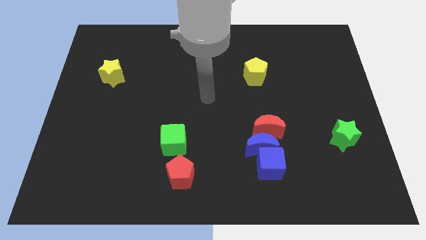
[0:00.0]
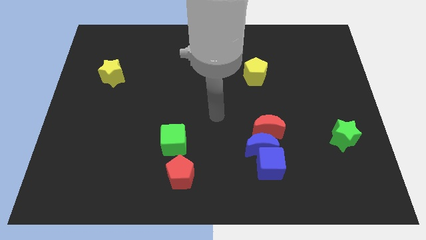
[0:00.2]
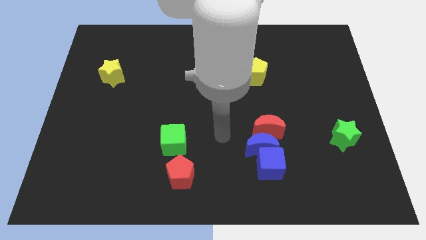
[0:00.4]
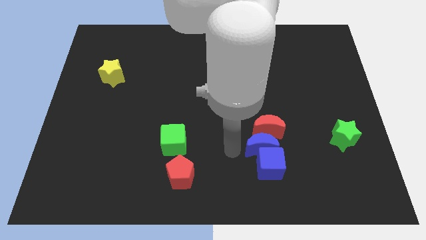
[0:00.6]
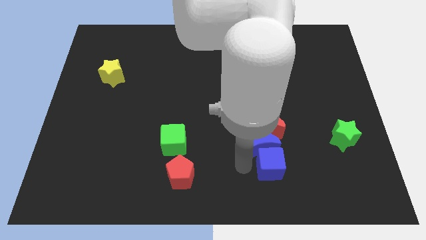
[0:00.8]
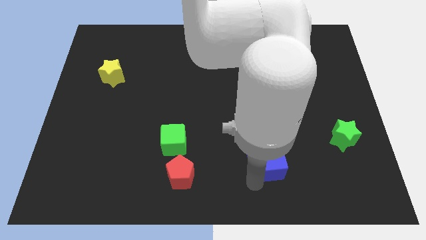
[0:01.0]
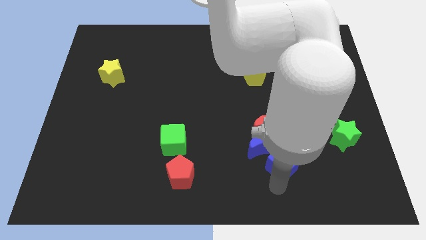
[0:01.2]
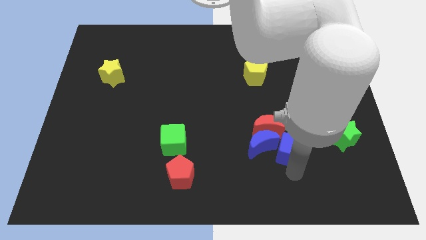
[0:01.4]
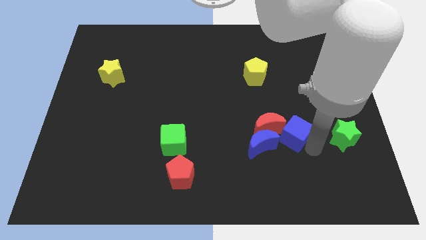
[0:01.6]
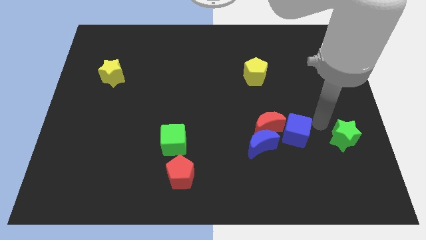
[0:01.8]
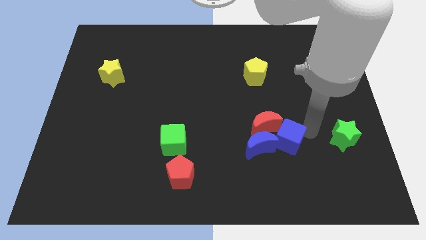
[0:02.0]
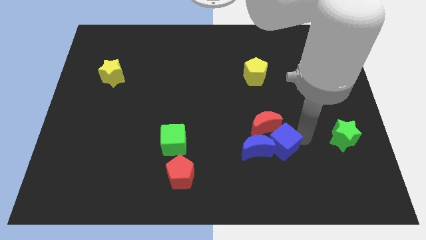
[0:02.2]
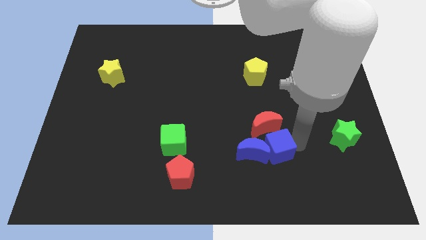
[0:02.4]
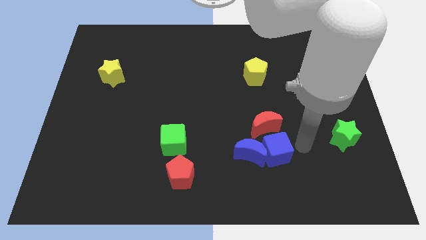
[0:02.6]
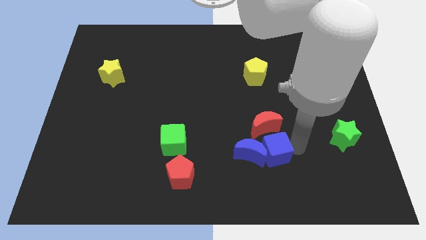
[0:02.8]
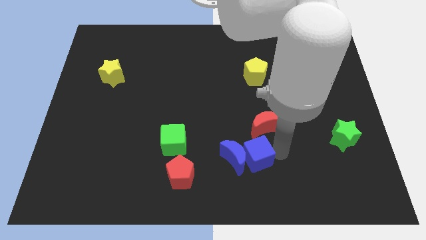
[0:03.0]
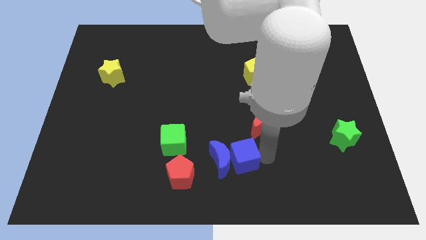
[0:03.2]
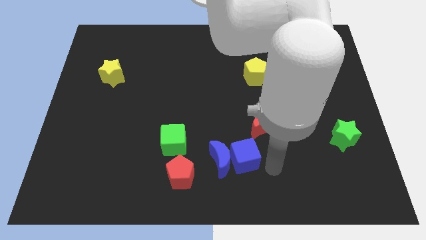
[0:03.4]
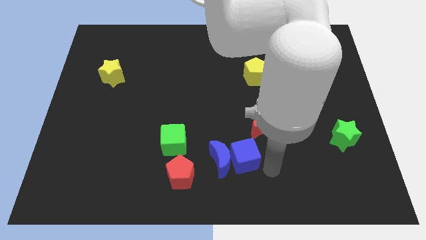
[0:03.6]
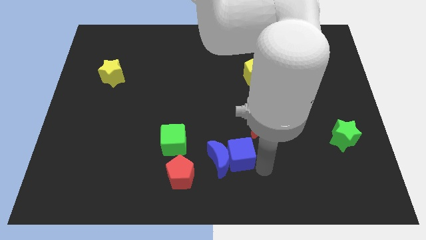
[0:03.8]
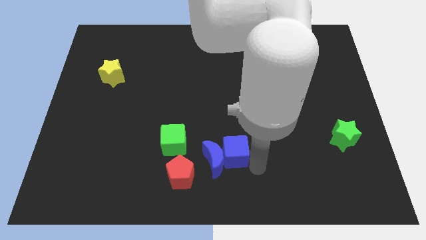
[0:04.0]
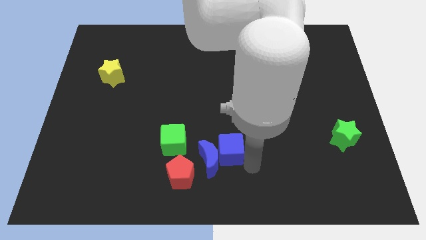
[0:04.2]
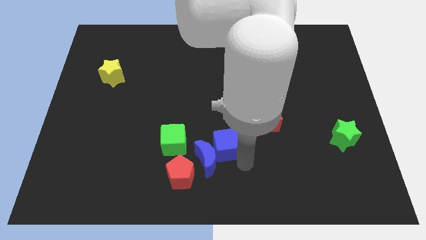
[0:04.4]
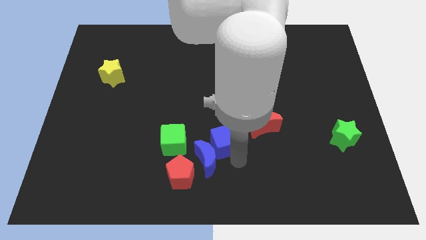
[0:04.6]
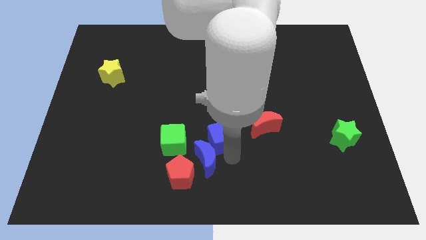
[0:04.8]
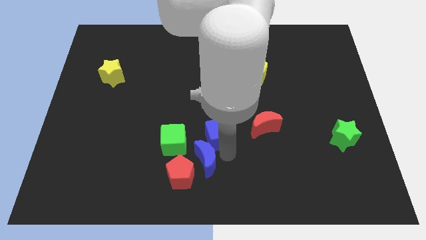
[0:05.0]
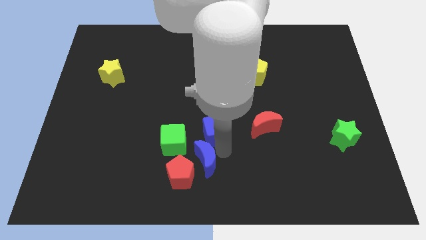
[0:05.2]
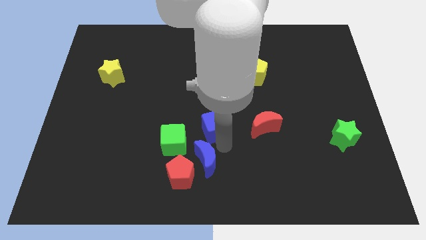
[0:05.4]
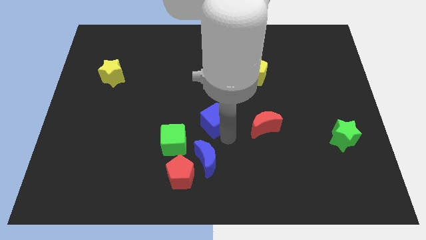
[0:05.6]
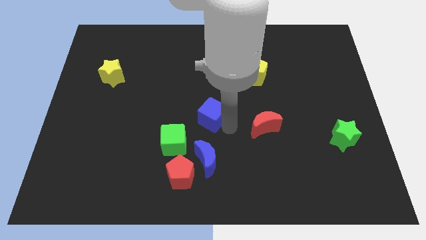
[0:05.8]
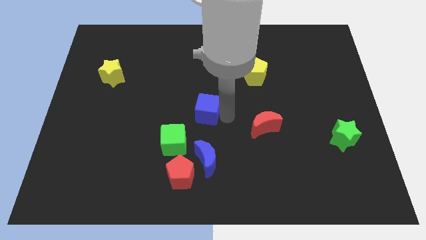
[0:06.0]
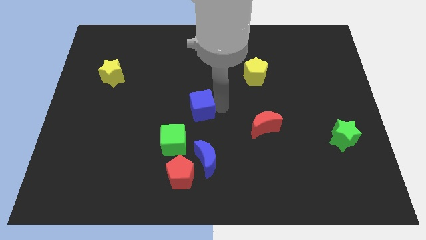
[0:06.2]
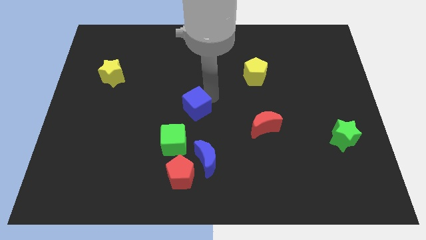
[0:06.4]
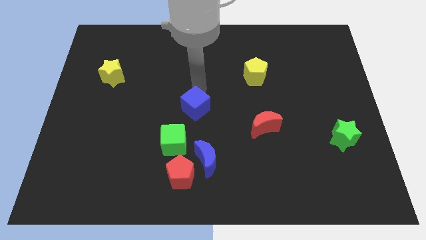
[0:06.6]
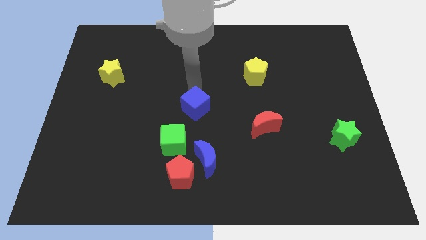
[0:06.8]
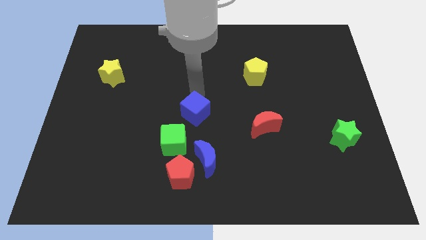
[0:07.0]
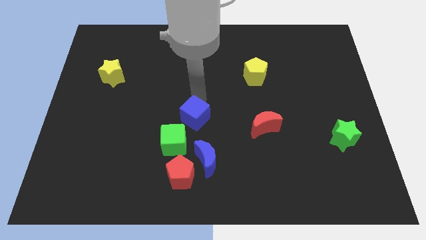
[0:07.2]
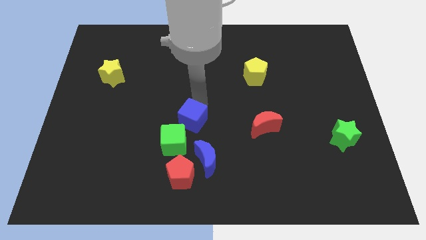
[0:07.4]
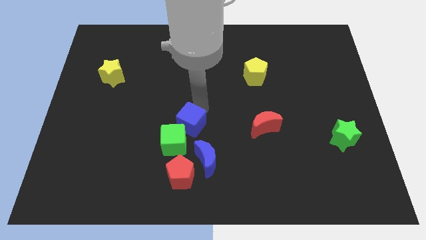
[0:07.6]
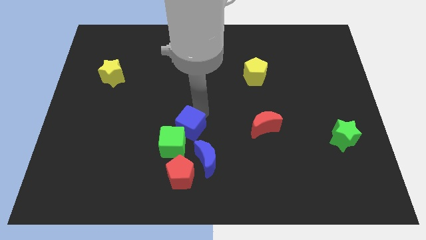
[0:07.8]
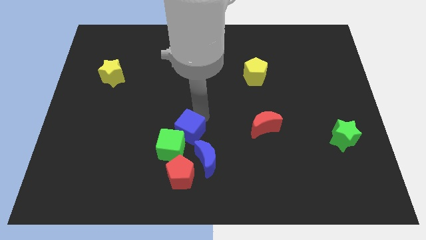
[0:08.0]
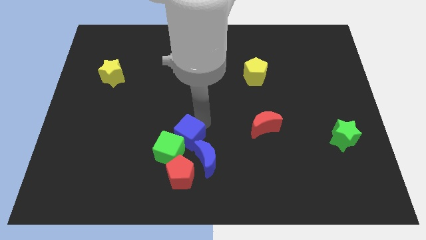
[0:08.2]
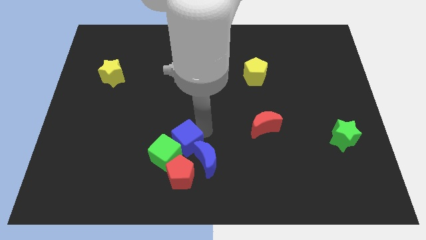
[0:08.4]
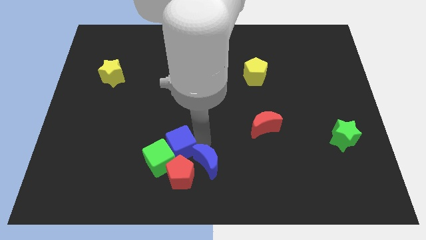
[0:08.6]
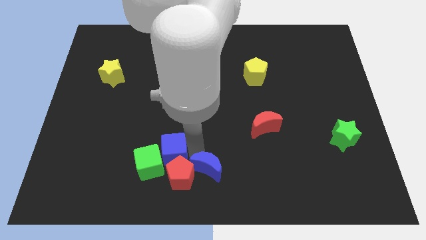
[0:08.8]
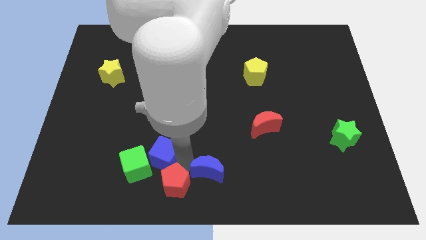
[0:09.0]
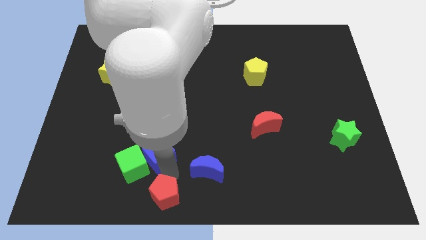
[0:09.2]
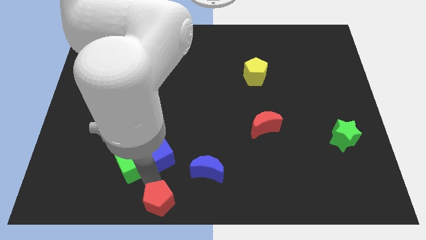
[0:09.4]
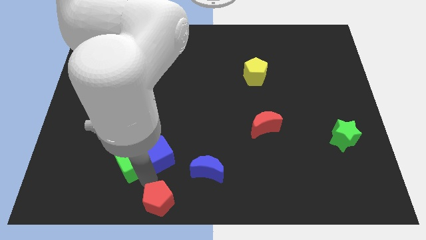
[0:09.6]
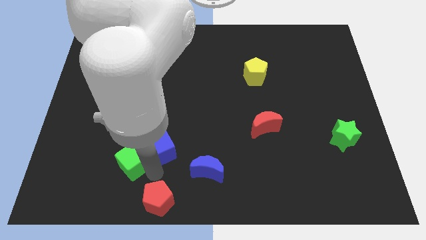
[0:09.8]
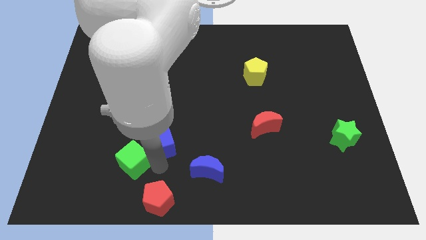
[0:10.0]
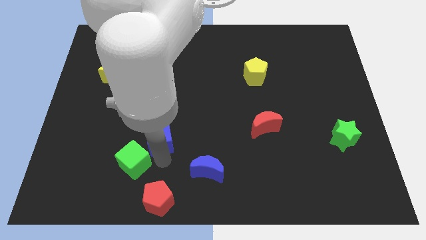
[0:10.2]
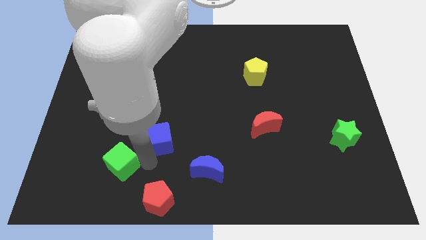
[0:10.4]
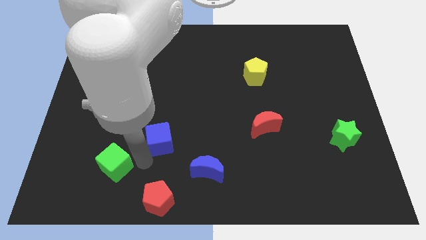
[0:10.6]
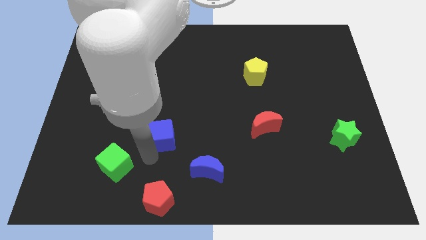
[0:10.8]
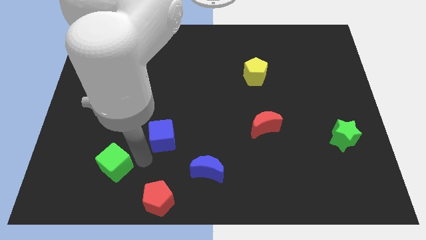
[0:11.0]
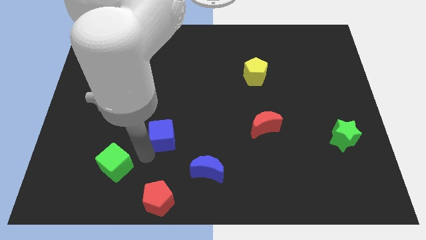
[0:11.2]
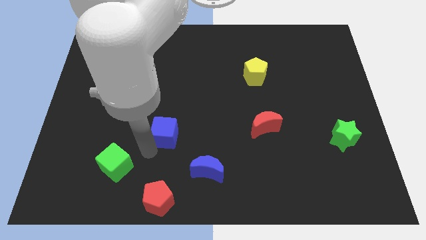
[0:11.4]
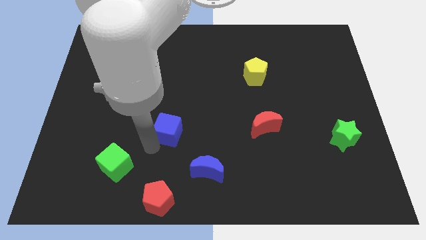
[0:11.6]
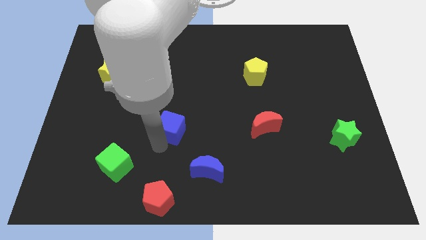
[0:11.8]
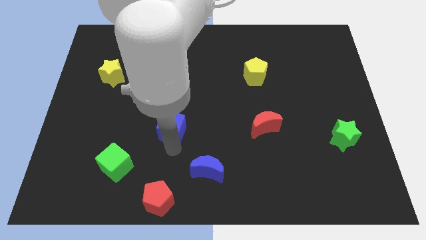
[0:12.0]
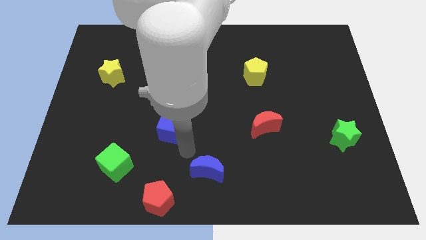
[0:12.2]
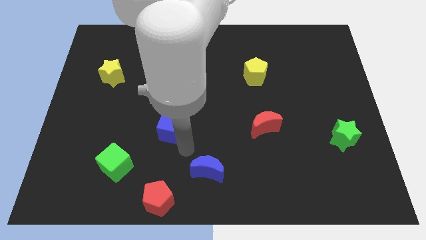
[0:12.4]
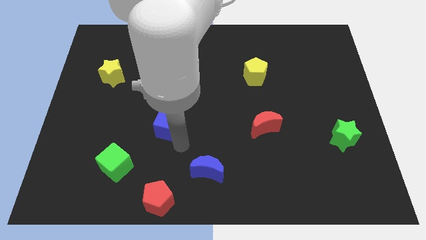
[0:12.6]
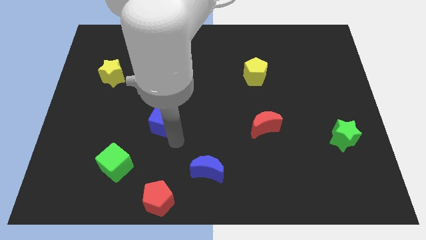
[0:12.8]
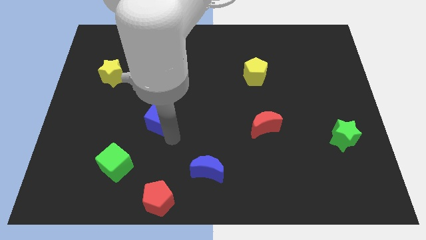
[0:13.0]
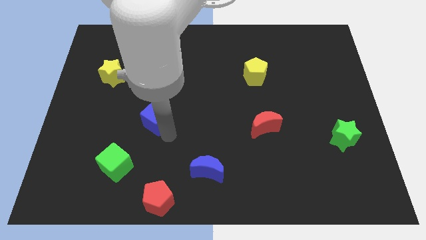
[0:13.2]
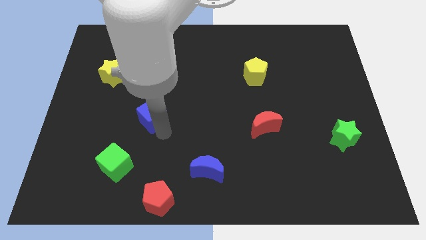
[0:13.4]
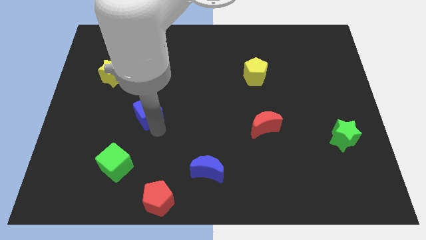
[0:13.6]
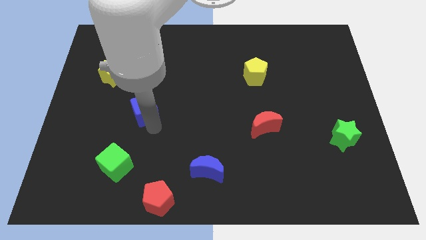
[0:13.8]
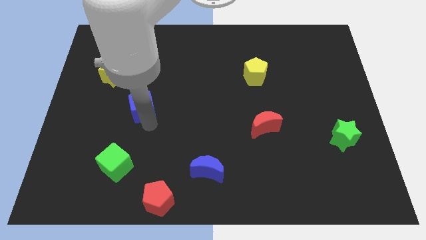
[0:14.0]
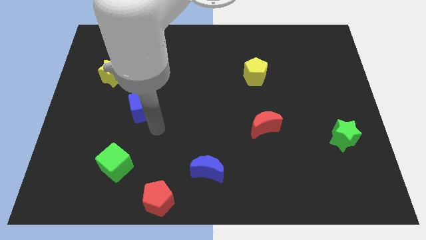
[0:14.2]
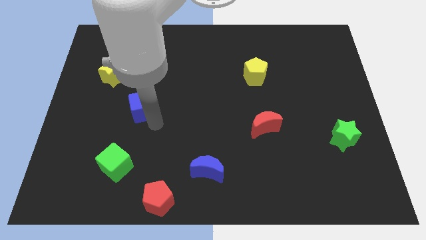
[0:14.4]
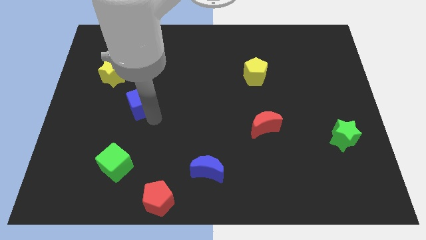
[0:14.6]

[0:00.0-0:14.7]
push the blue cube diagonally down and to the right of the yellow star
